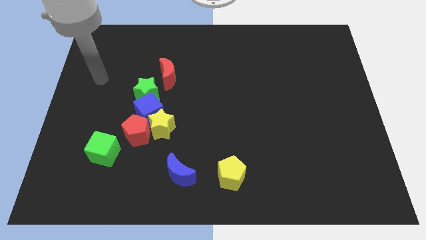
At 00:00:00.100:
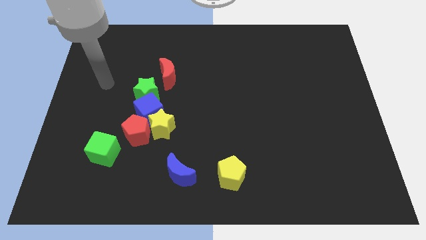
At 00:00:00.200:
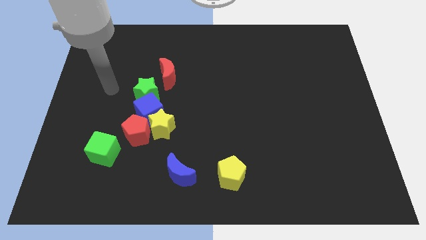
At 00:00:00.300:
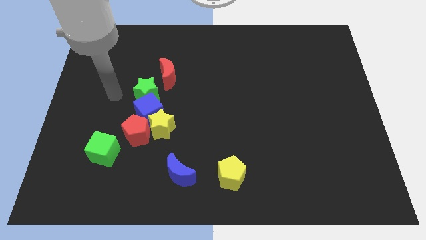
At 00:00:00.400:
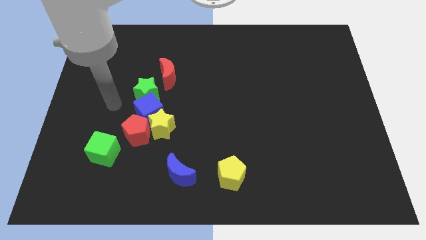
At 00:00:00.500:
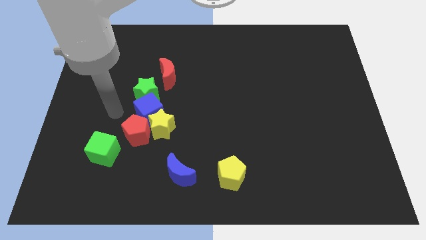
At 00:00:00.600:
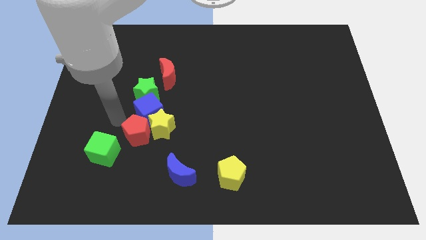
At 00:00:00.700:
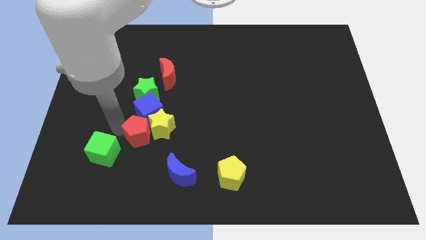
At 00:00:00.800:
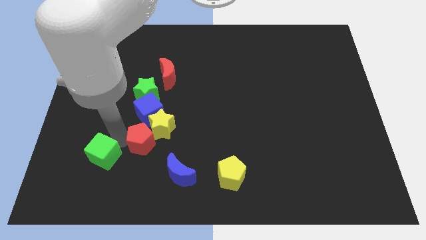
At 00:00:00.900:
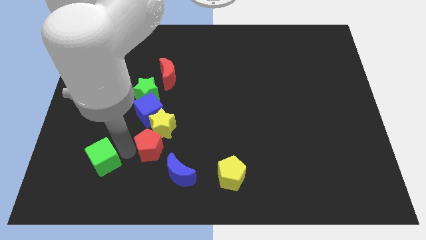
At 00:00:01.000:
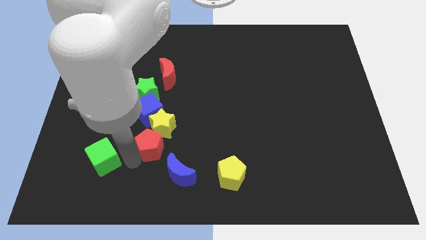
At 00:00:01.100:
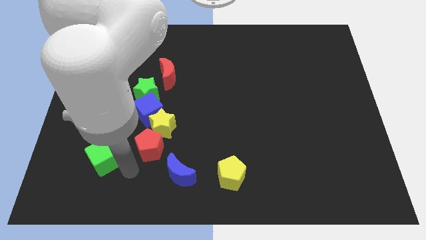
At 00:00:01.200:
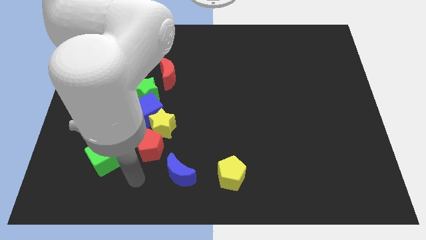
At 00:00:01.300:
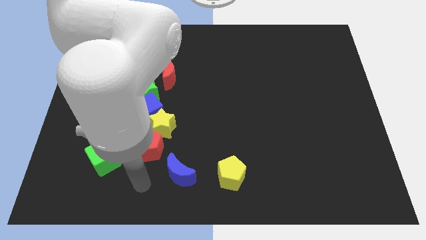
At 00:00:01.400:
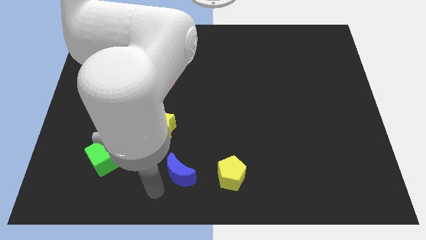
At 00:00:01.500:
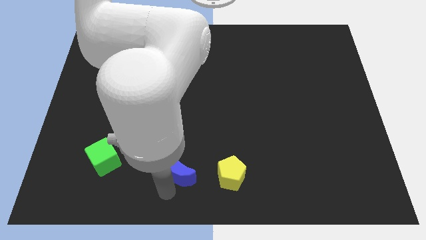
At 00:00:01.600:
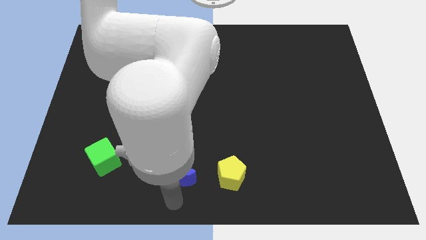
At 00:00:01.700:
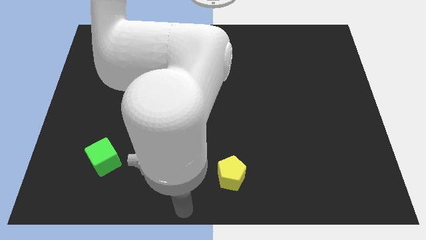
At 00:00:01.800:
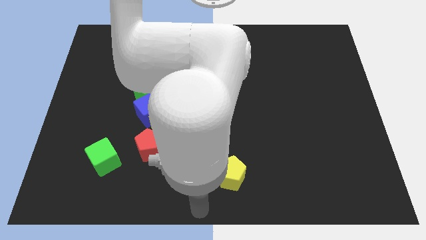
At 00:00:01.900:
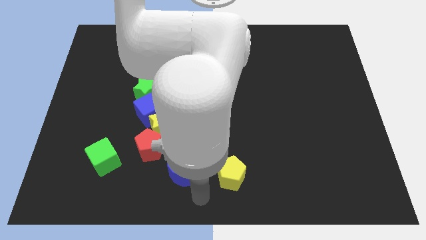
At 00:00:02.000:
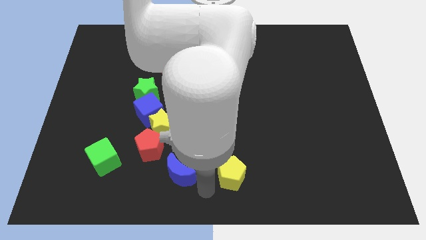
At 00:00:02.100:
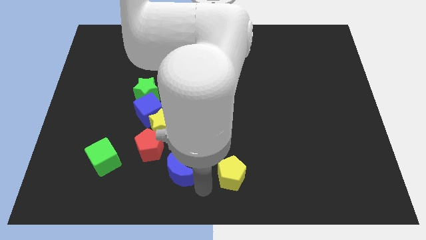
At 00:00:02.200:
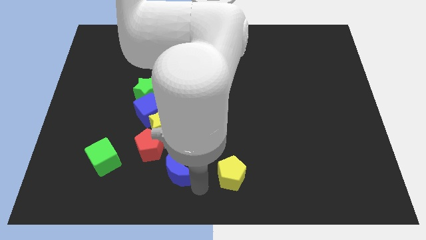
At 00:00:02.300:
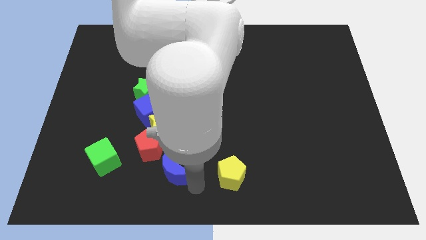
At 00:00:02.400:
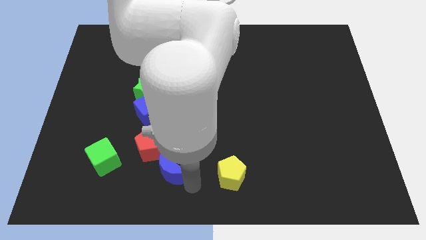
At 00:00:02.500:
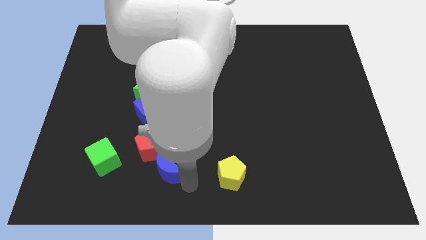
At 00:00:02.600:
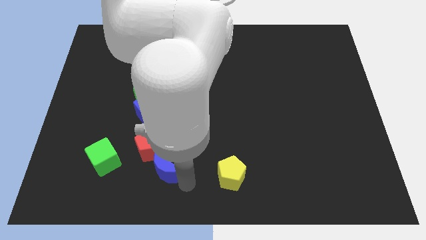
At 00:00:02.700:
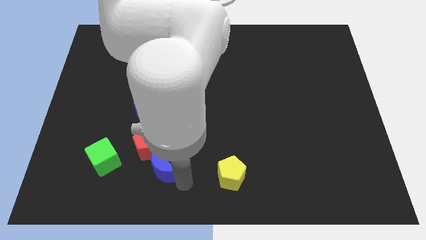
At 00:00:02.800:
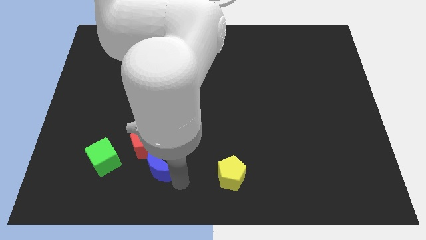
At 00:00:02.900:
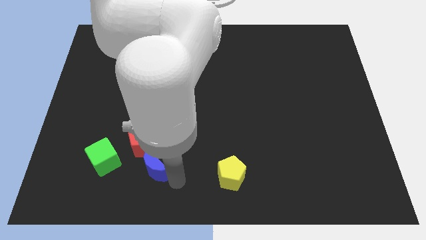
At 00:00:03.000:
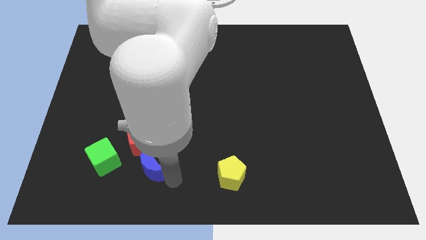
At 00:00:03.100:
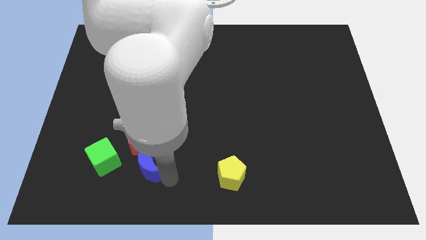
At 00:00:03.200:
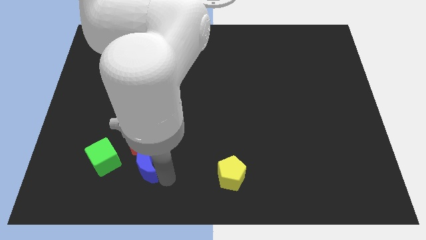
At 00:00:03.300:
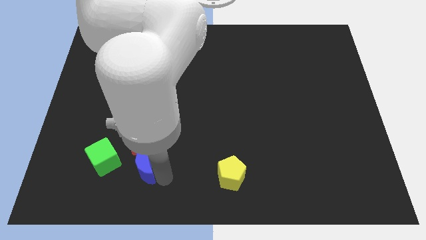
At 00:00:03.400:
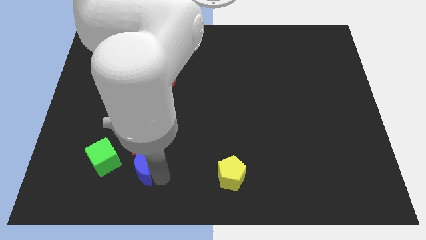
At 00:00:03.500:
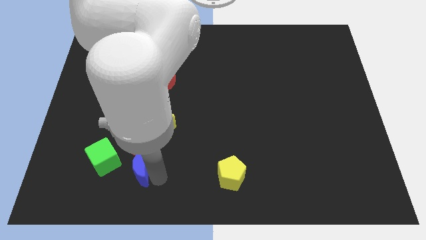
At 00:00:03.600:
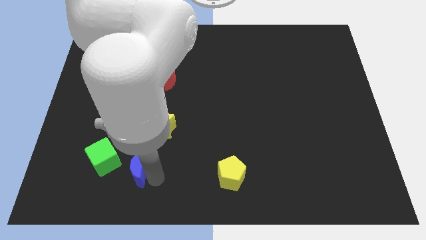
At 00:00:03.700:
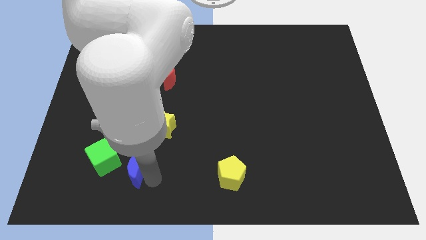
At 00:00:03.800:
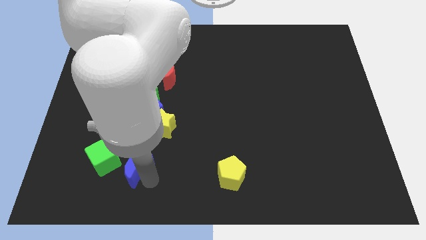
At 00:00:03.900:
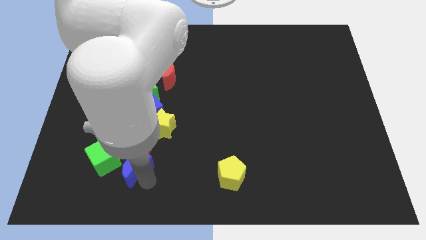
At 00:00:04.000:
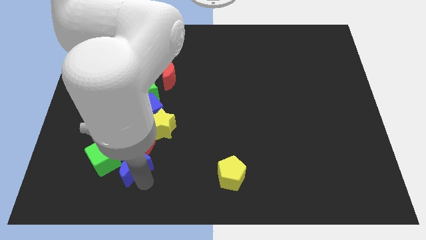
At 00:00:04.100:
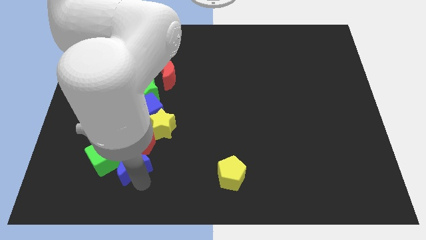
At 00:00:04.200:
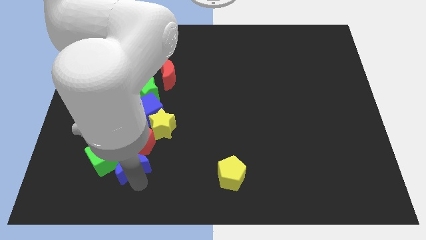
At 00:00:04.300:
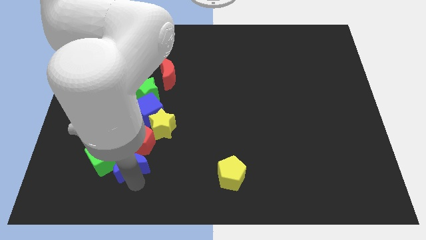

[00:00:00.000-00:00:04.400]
move the blue moon diagonally up and left somewhat

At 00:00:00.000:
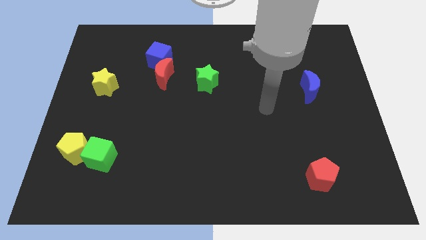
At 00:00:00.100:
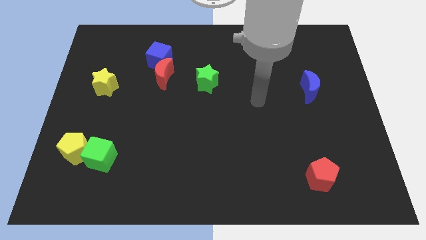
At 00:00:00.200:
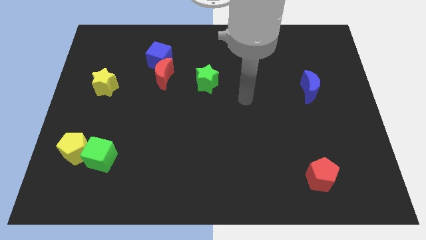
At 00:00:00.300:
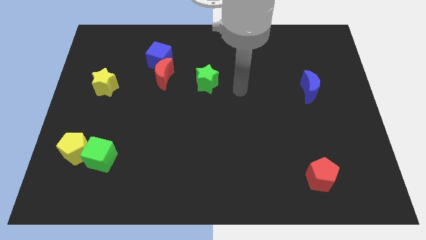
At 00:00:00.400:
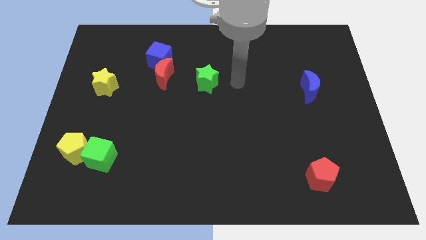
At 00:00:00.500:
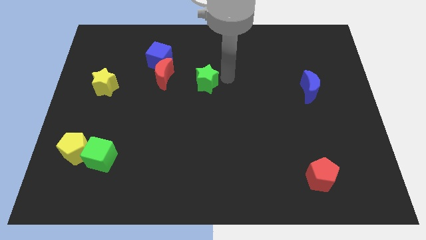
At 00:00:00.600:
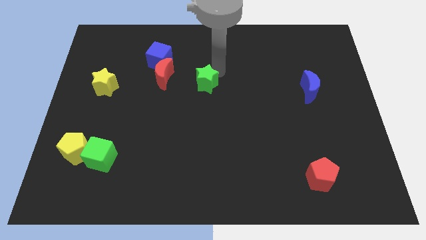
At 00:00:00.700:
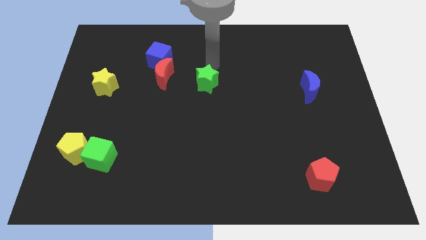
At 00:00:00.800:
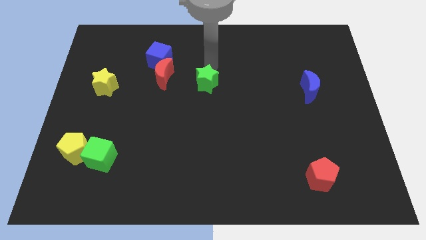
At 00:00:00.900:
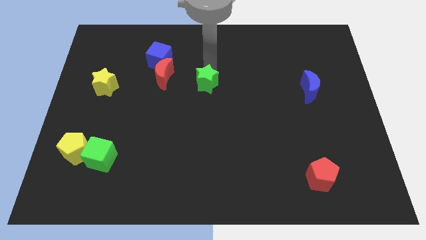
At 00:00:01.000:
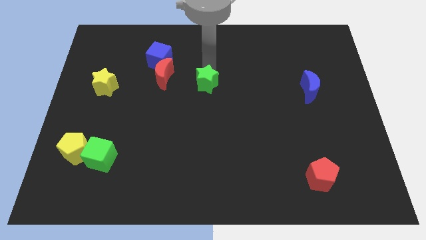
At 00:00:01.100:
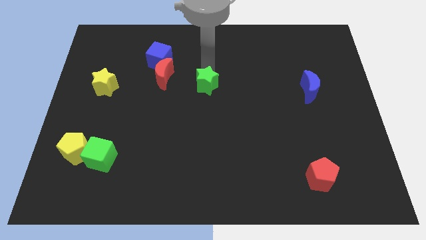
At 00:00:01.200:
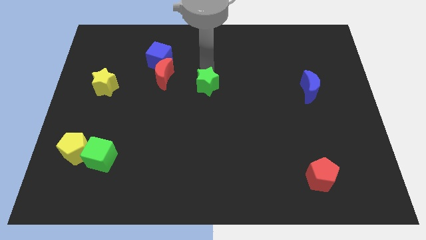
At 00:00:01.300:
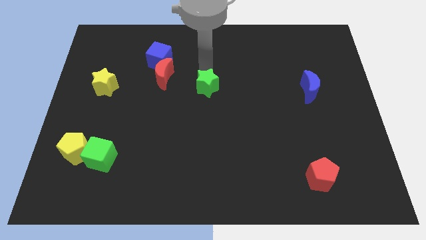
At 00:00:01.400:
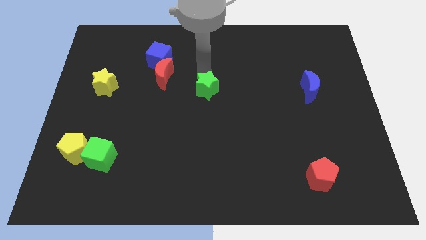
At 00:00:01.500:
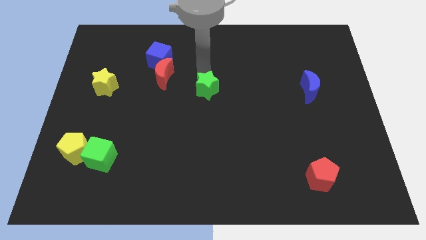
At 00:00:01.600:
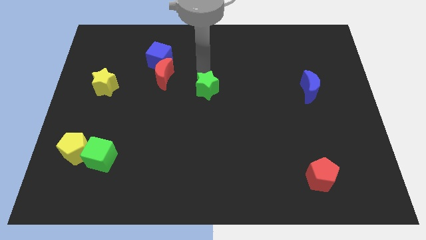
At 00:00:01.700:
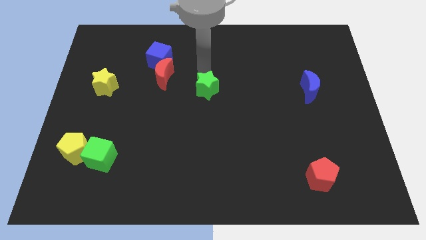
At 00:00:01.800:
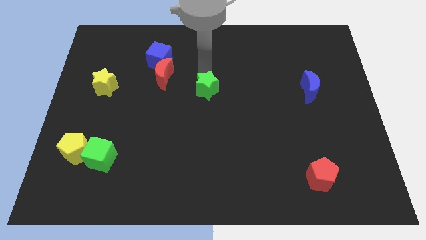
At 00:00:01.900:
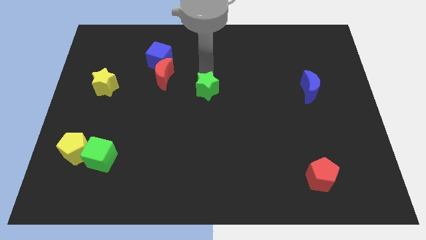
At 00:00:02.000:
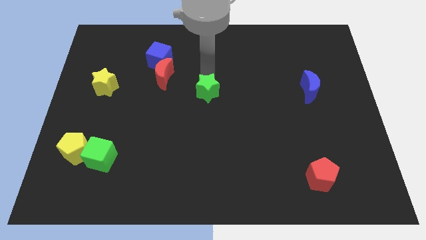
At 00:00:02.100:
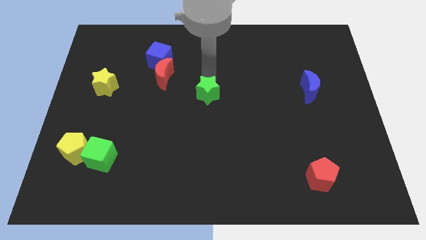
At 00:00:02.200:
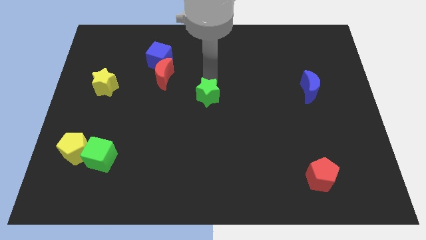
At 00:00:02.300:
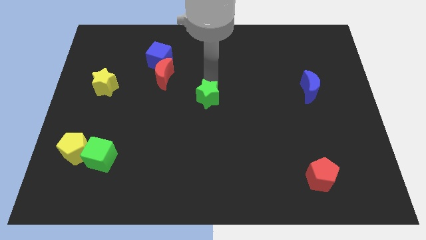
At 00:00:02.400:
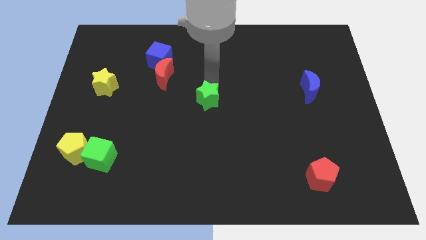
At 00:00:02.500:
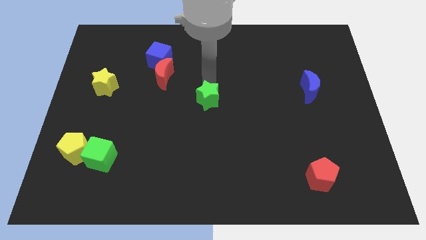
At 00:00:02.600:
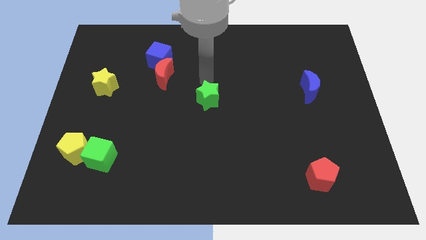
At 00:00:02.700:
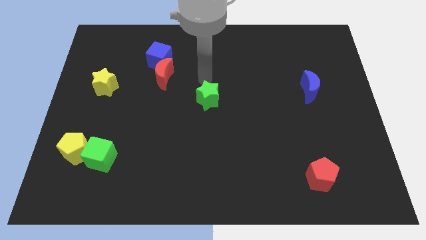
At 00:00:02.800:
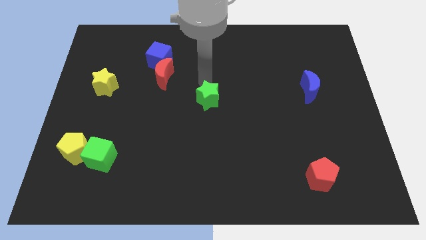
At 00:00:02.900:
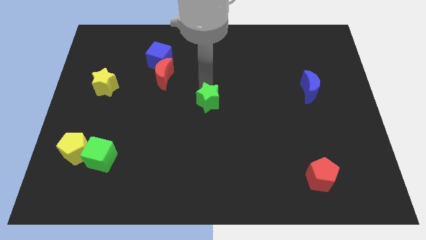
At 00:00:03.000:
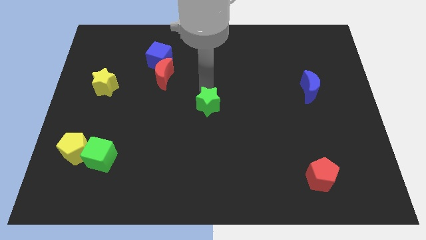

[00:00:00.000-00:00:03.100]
slide the green star a little downwards

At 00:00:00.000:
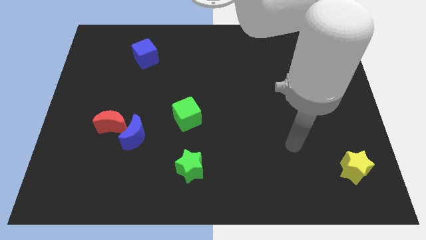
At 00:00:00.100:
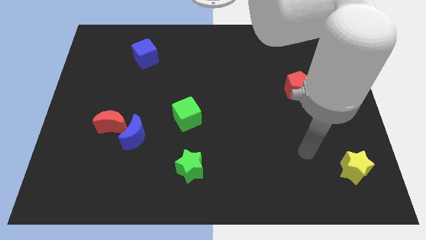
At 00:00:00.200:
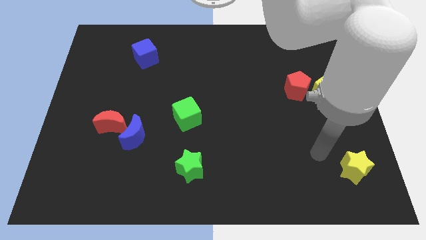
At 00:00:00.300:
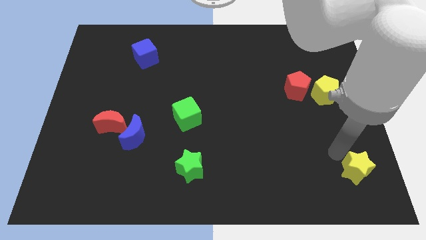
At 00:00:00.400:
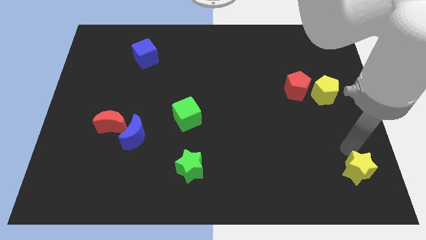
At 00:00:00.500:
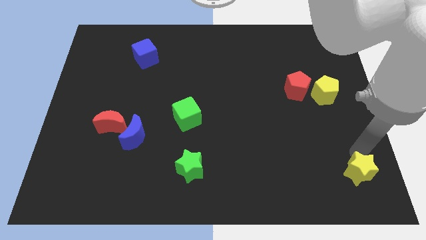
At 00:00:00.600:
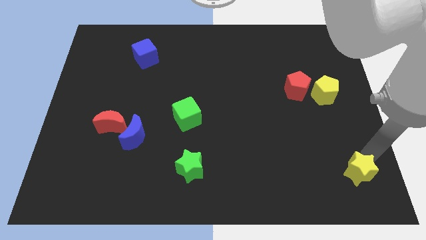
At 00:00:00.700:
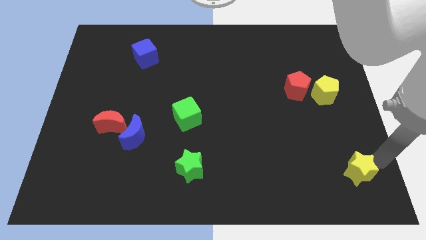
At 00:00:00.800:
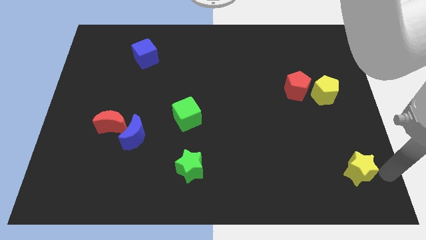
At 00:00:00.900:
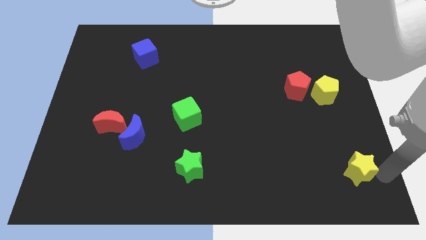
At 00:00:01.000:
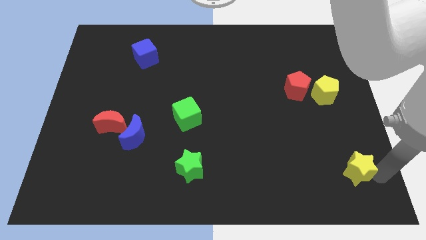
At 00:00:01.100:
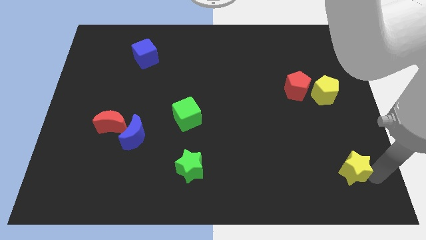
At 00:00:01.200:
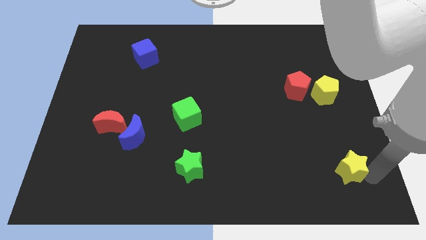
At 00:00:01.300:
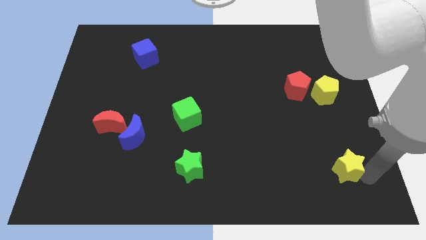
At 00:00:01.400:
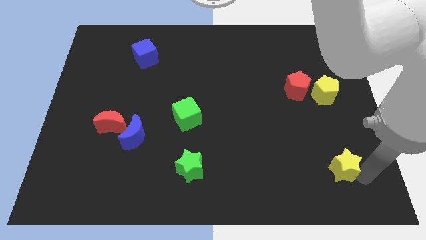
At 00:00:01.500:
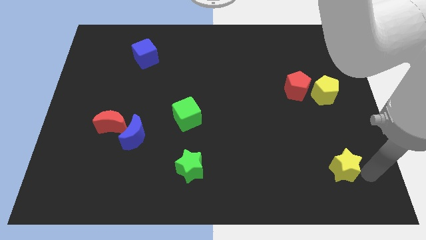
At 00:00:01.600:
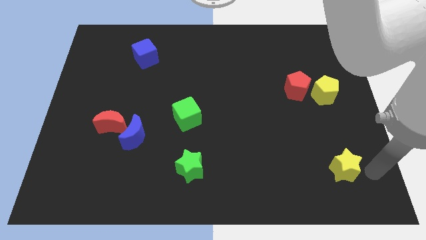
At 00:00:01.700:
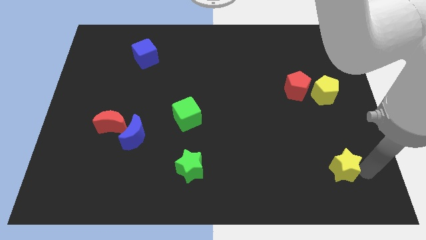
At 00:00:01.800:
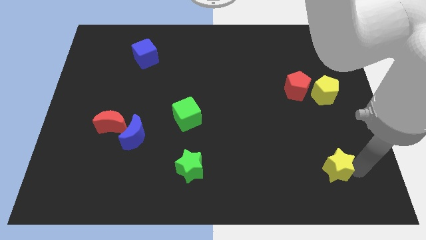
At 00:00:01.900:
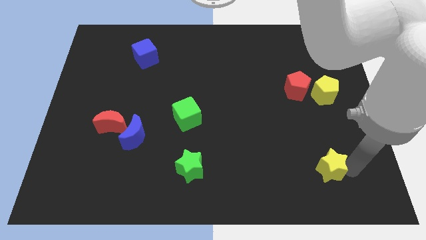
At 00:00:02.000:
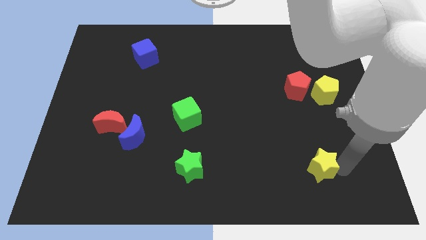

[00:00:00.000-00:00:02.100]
push the yellow star somewhat to the left
